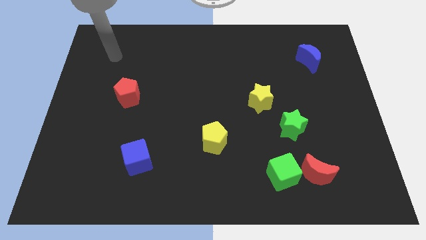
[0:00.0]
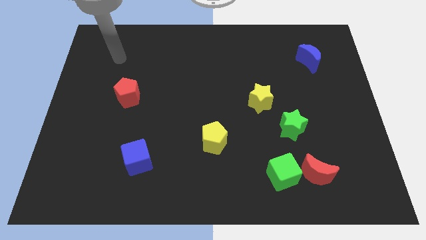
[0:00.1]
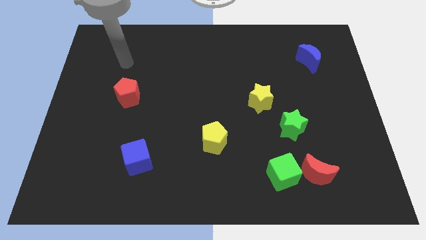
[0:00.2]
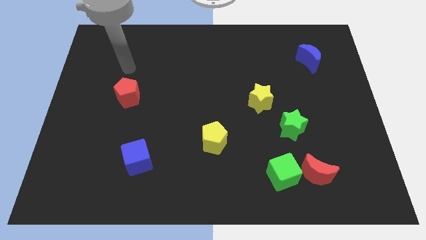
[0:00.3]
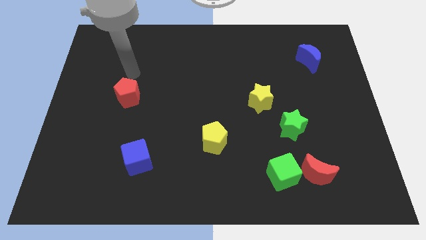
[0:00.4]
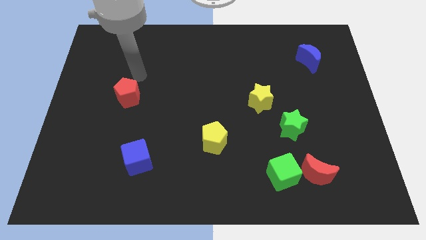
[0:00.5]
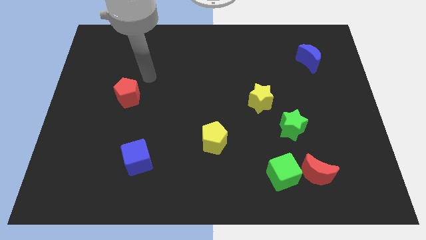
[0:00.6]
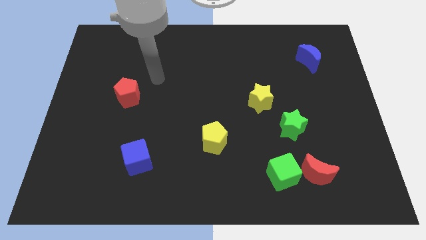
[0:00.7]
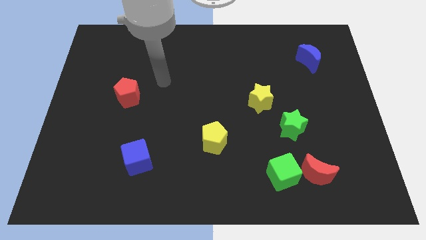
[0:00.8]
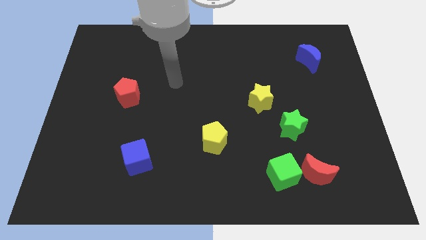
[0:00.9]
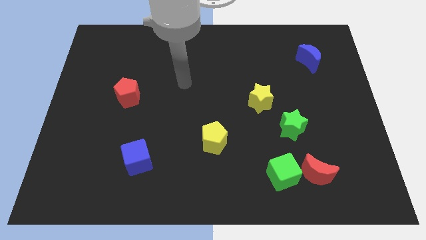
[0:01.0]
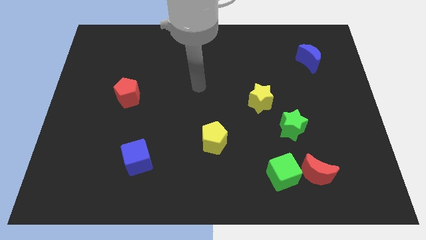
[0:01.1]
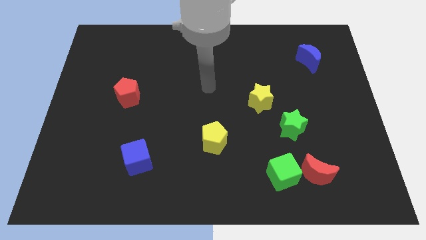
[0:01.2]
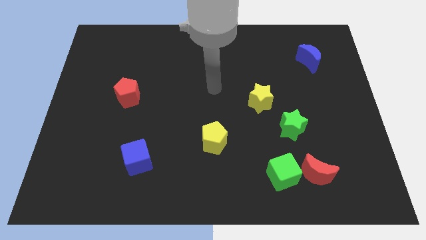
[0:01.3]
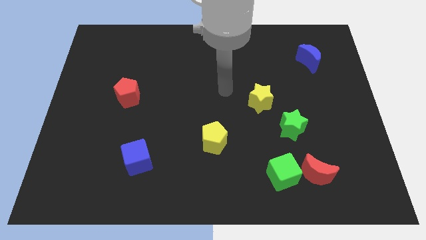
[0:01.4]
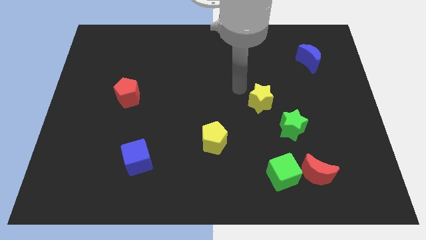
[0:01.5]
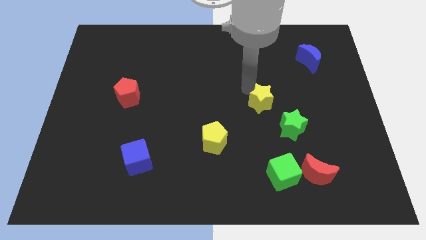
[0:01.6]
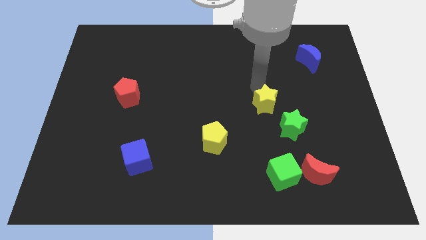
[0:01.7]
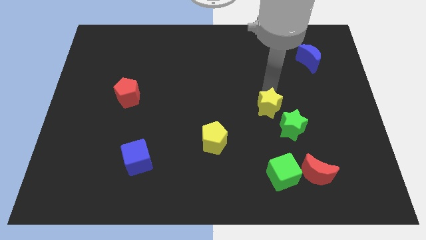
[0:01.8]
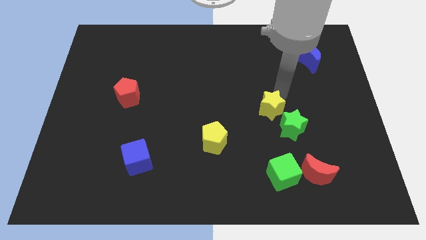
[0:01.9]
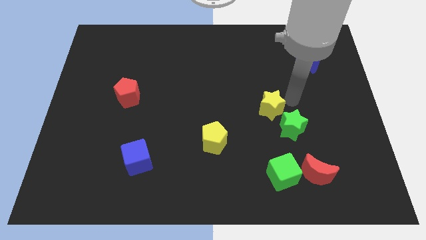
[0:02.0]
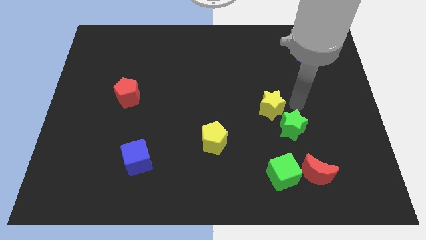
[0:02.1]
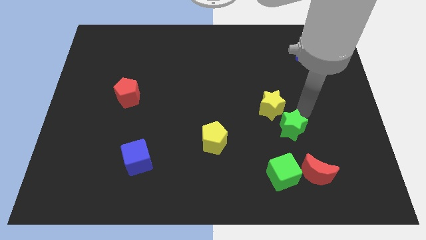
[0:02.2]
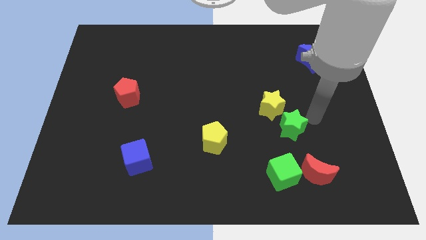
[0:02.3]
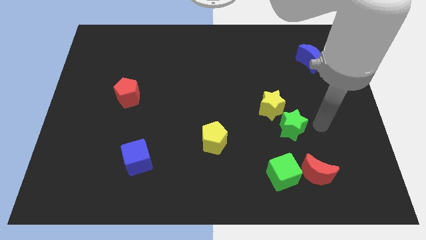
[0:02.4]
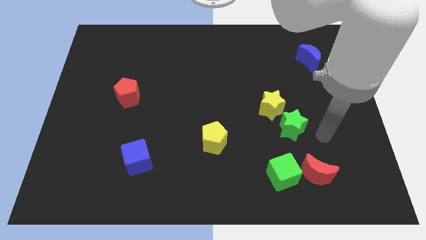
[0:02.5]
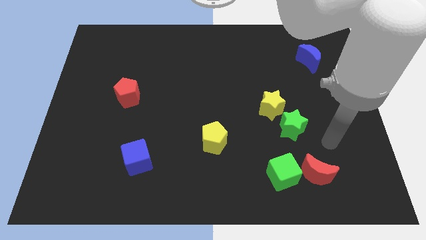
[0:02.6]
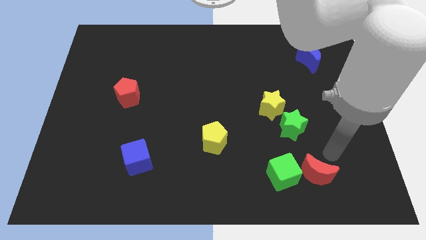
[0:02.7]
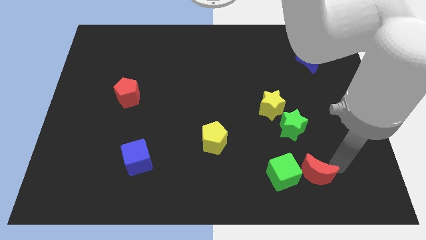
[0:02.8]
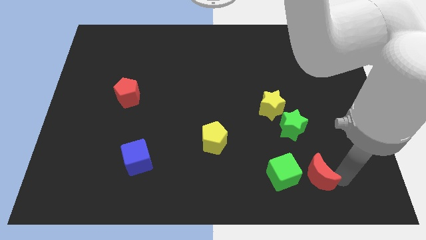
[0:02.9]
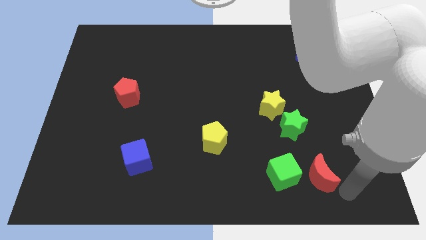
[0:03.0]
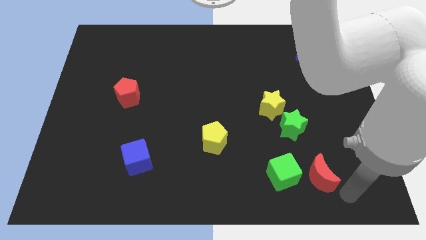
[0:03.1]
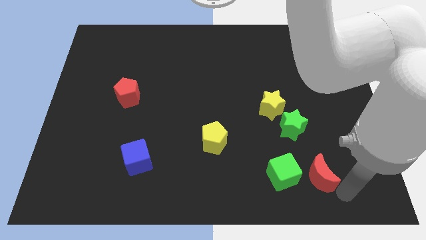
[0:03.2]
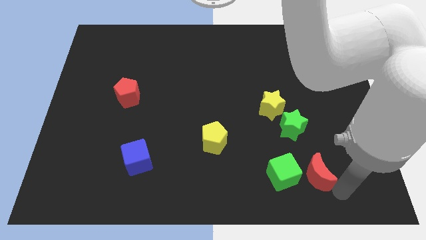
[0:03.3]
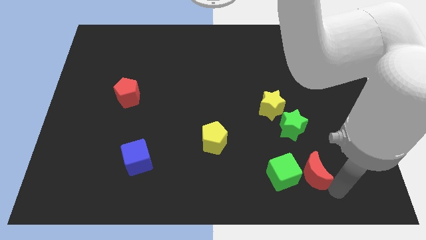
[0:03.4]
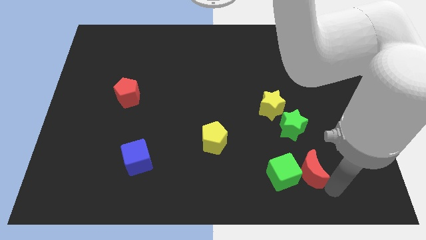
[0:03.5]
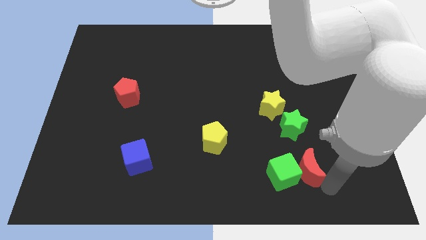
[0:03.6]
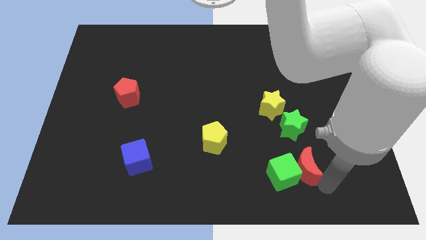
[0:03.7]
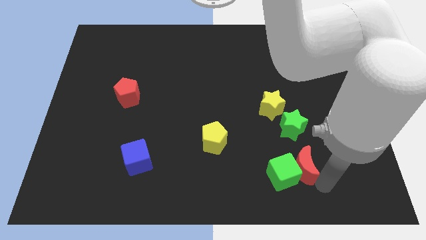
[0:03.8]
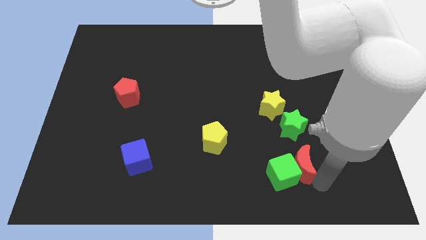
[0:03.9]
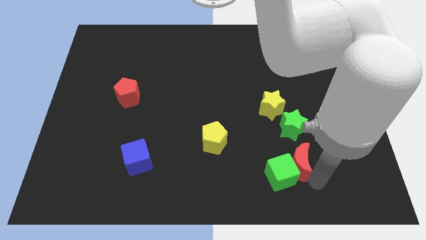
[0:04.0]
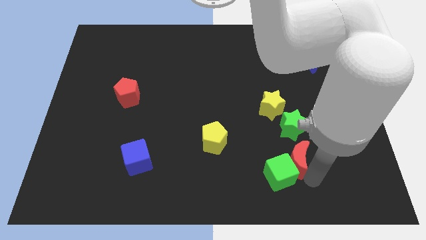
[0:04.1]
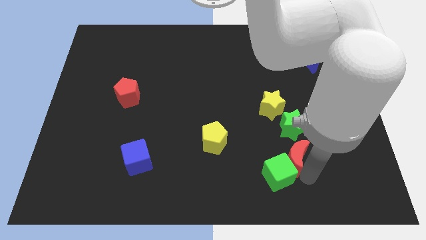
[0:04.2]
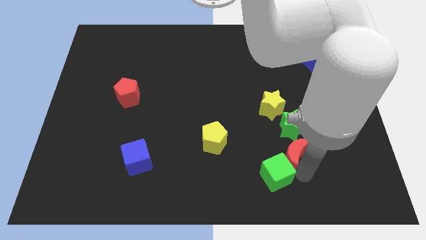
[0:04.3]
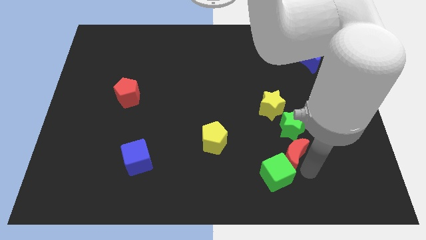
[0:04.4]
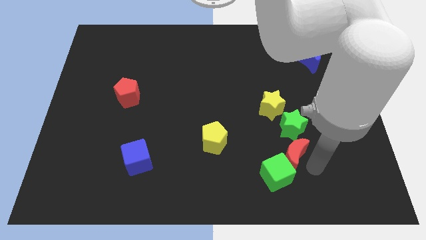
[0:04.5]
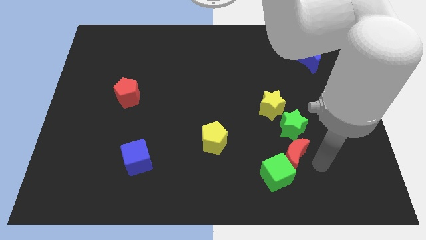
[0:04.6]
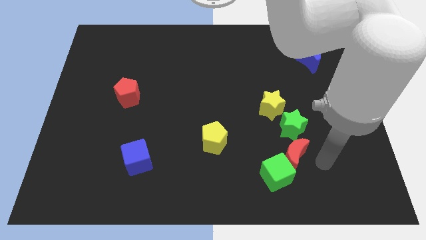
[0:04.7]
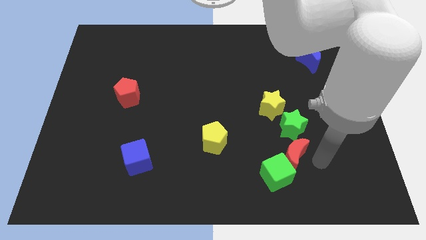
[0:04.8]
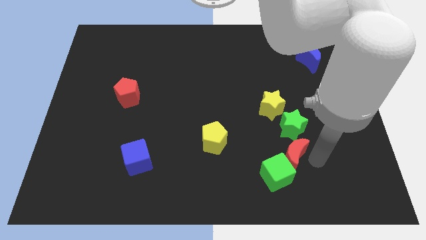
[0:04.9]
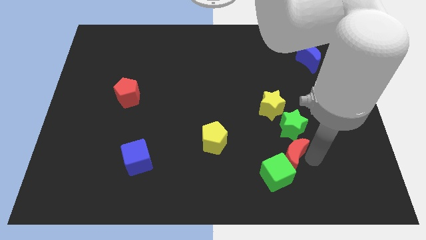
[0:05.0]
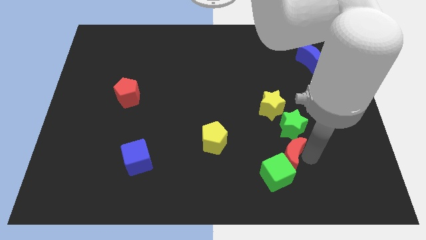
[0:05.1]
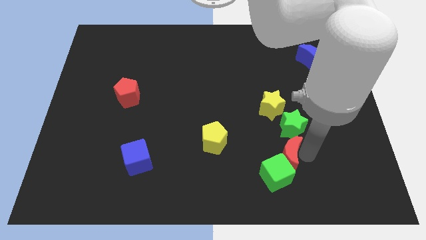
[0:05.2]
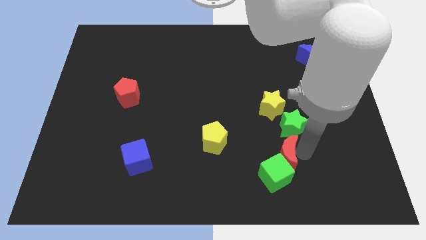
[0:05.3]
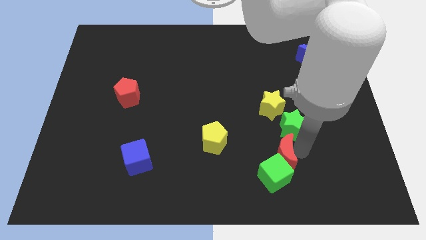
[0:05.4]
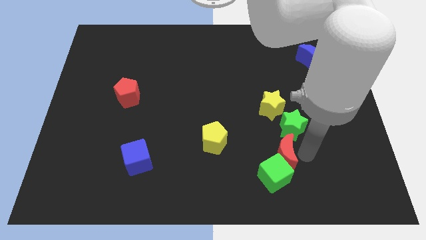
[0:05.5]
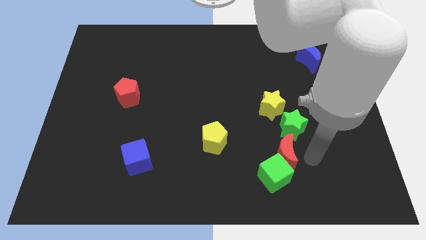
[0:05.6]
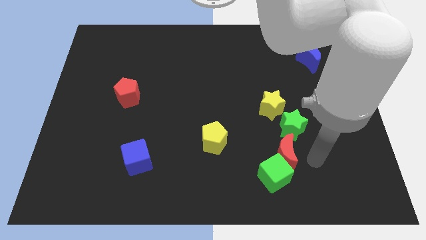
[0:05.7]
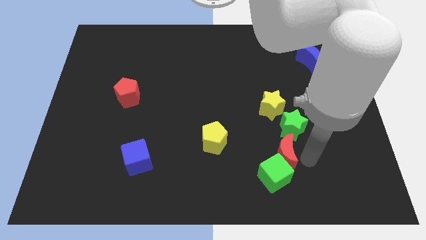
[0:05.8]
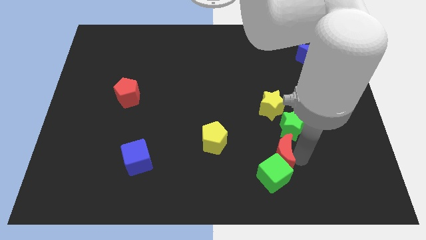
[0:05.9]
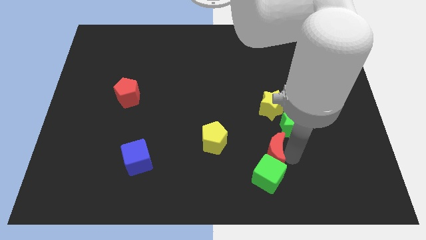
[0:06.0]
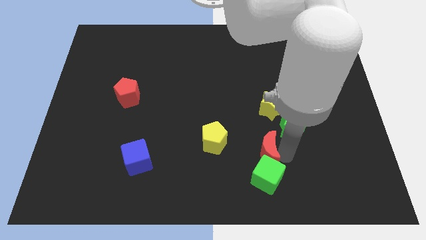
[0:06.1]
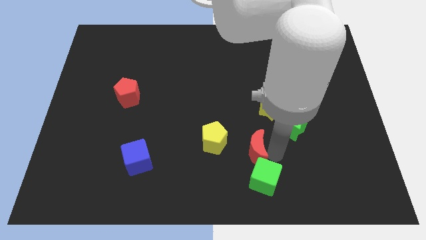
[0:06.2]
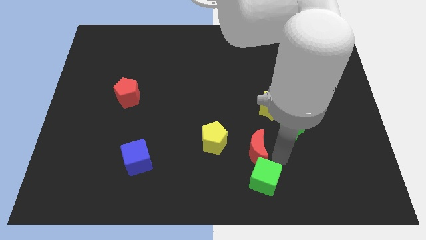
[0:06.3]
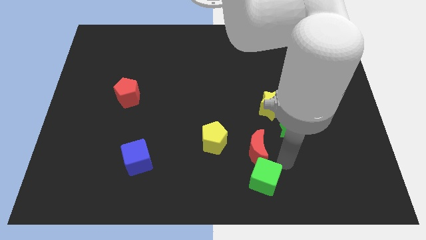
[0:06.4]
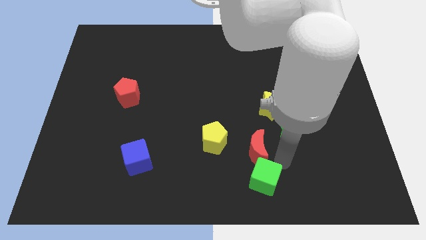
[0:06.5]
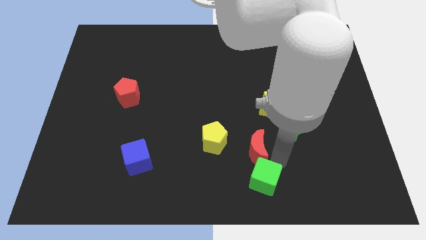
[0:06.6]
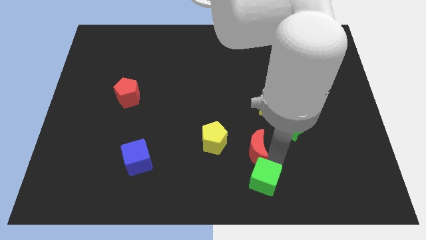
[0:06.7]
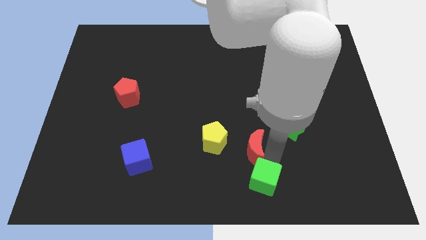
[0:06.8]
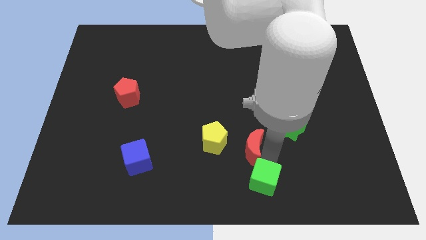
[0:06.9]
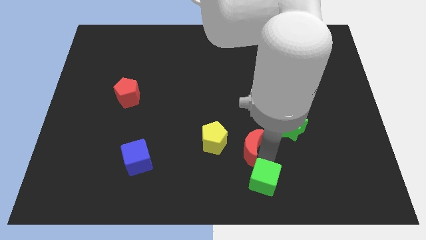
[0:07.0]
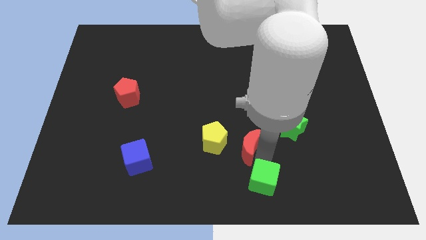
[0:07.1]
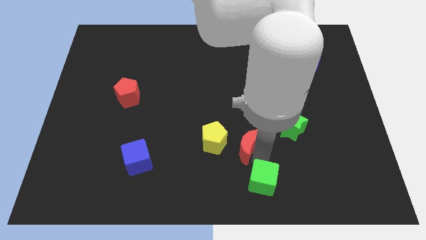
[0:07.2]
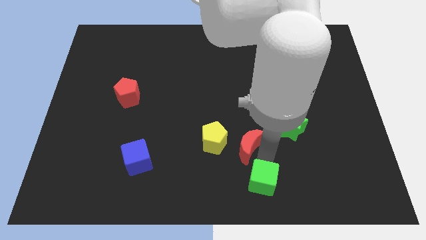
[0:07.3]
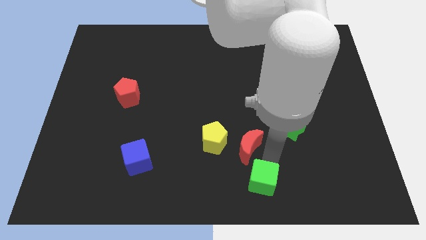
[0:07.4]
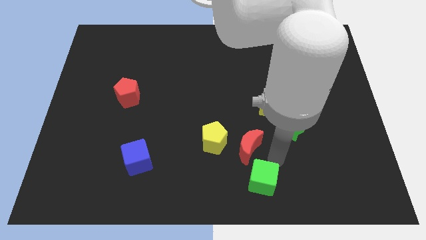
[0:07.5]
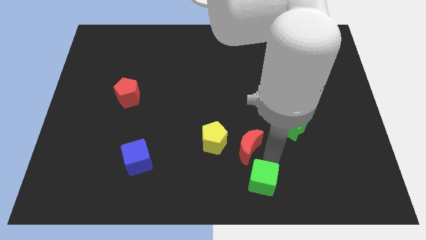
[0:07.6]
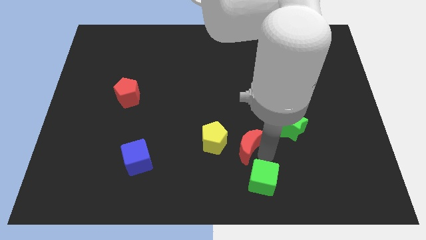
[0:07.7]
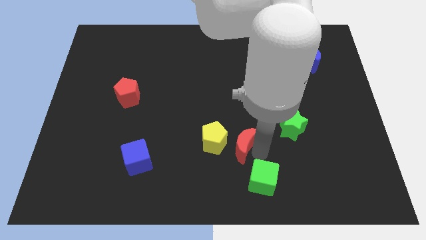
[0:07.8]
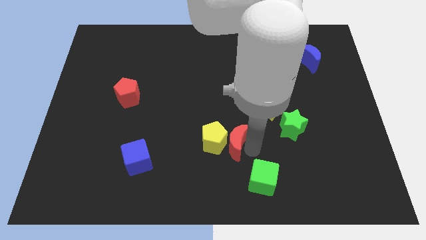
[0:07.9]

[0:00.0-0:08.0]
move the red moon to the yellow pentagon
